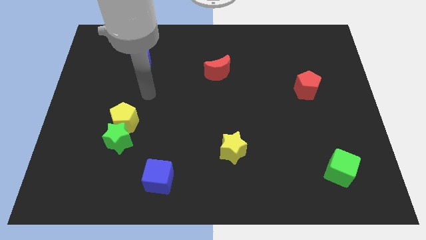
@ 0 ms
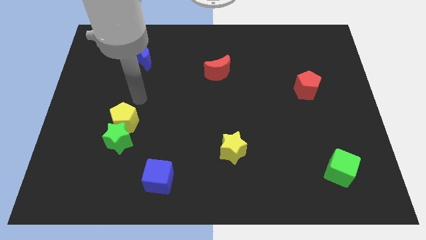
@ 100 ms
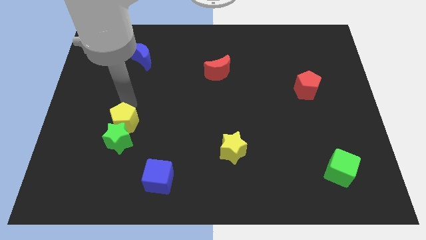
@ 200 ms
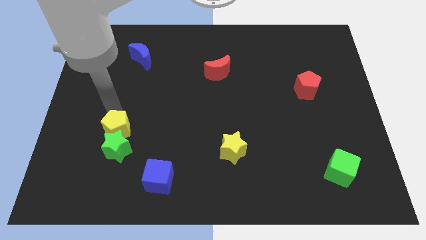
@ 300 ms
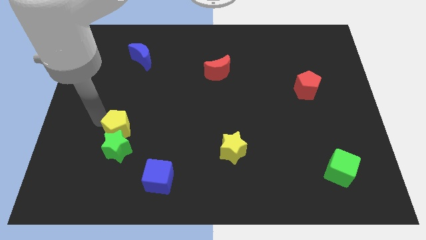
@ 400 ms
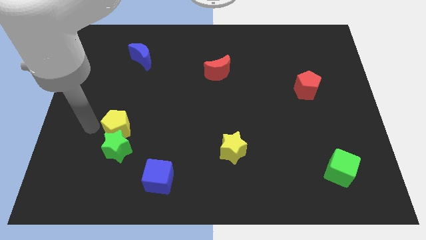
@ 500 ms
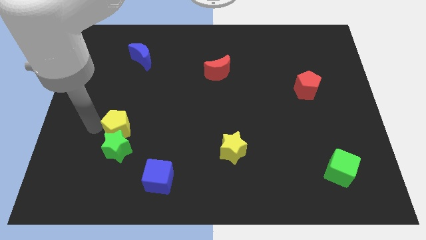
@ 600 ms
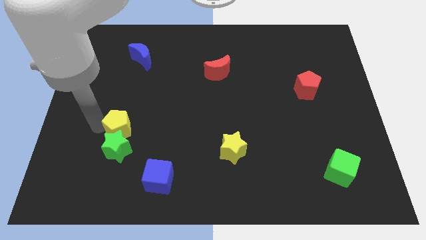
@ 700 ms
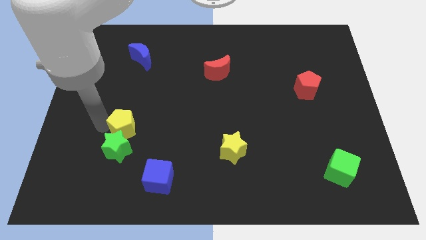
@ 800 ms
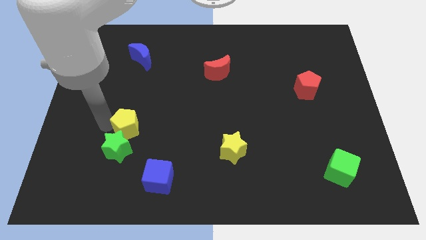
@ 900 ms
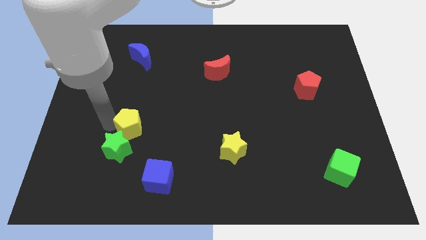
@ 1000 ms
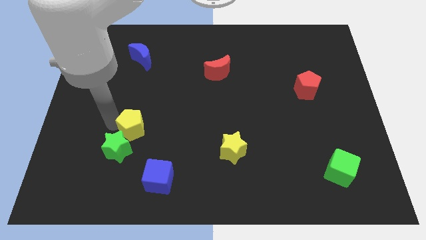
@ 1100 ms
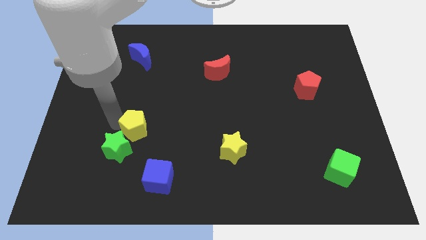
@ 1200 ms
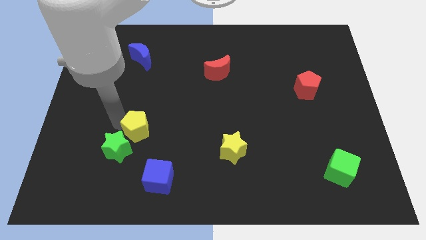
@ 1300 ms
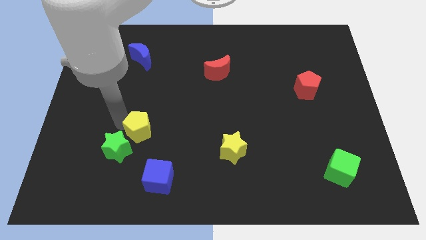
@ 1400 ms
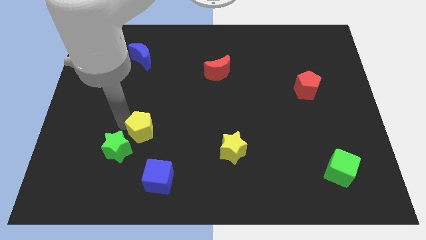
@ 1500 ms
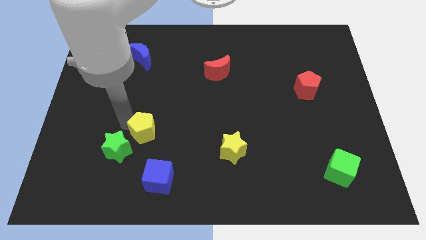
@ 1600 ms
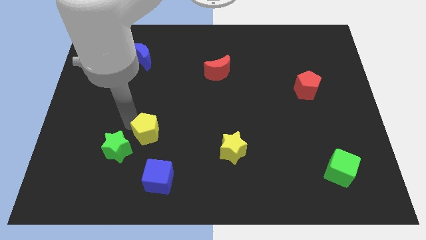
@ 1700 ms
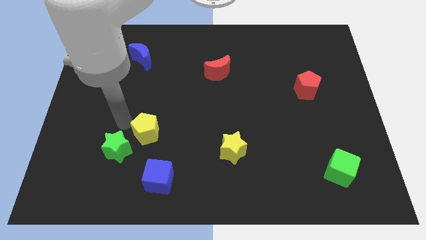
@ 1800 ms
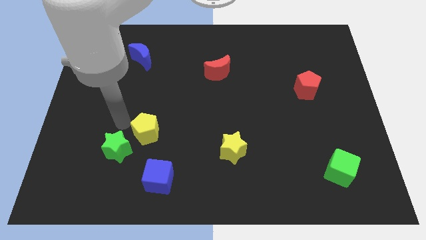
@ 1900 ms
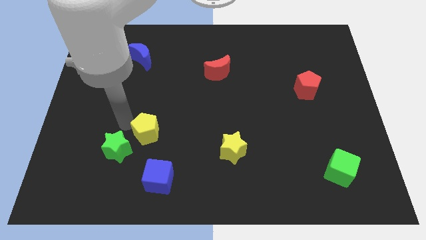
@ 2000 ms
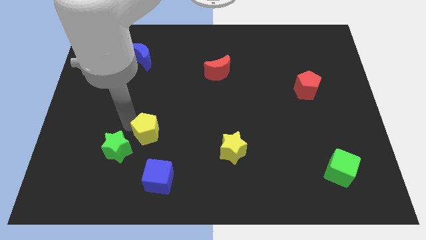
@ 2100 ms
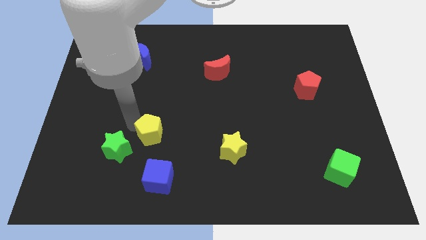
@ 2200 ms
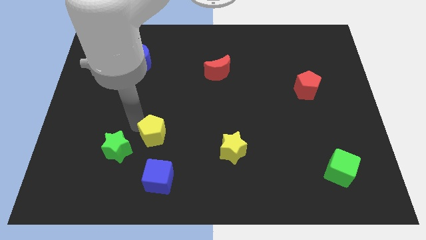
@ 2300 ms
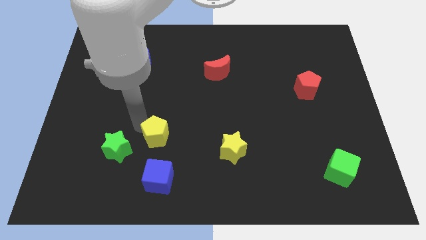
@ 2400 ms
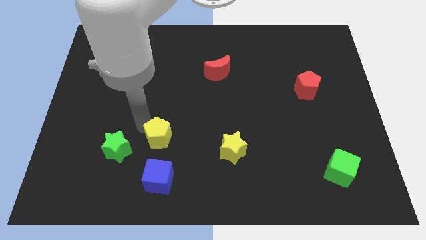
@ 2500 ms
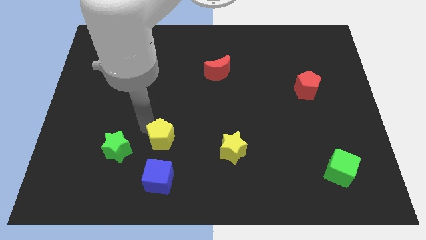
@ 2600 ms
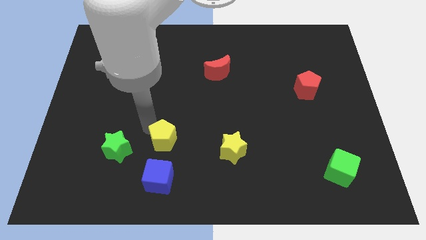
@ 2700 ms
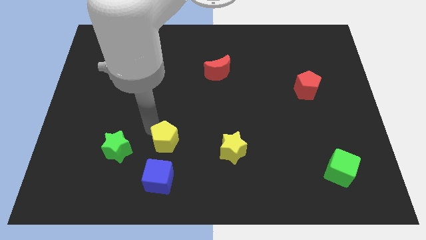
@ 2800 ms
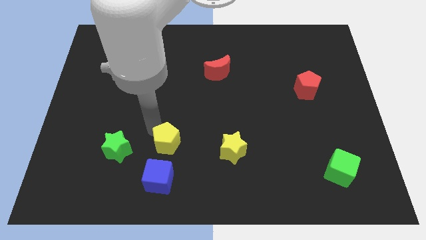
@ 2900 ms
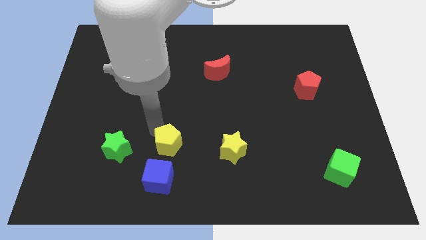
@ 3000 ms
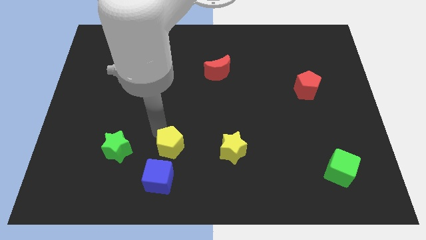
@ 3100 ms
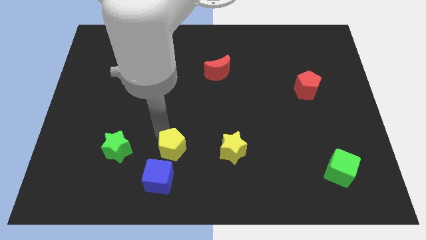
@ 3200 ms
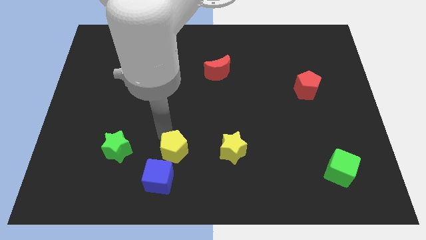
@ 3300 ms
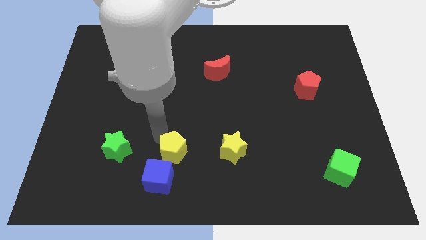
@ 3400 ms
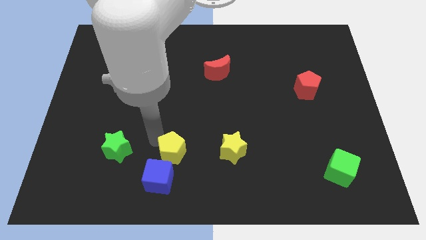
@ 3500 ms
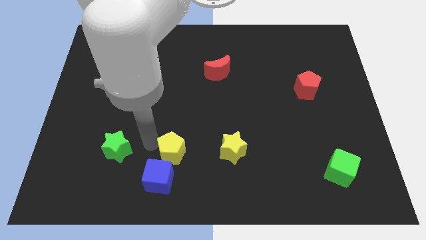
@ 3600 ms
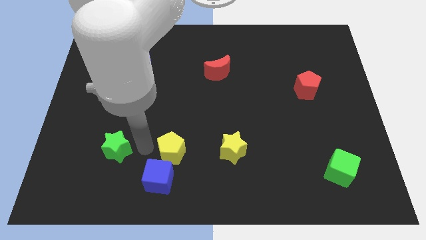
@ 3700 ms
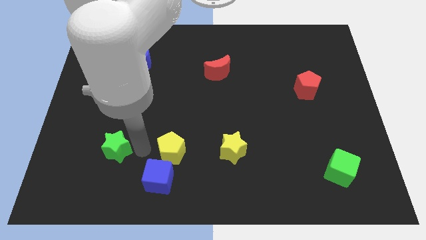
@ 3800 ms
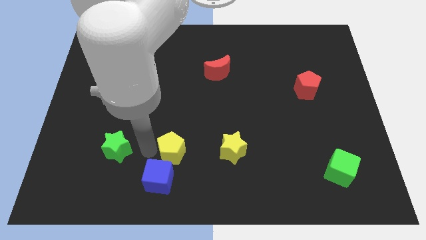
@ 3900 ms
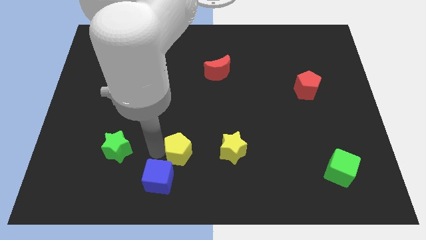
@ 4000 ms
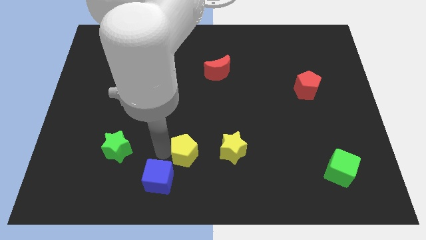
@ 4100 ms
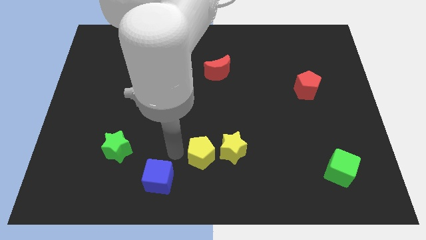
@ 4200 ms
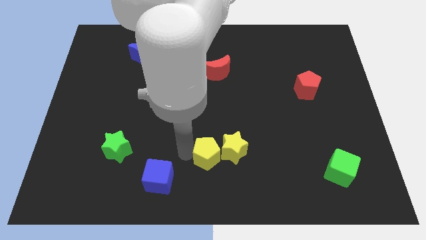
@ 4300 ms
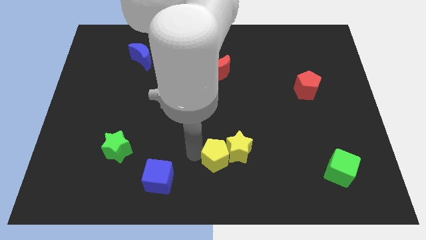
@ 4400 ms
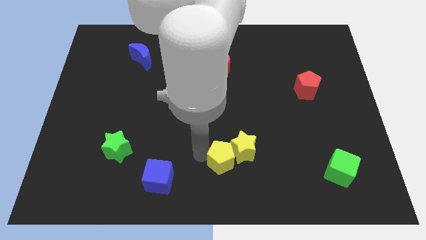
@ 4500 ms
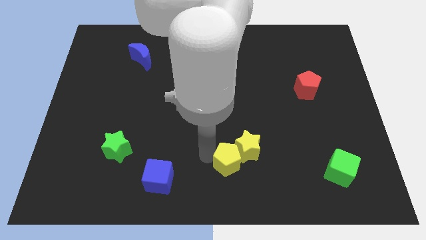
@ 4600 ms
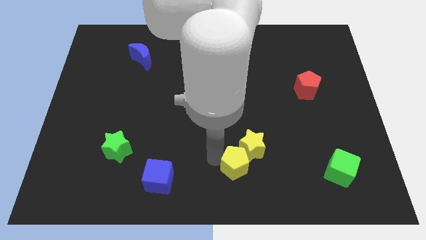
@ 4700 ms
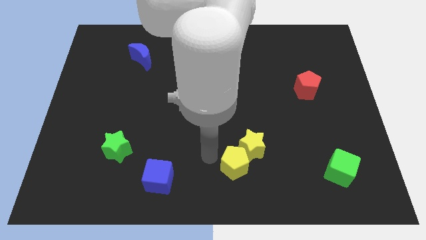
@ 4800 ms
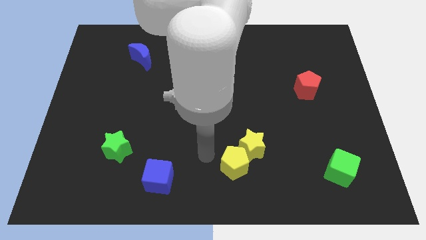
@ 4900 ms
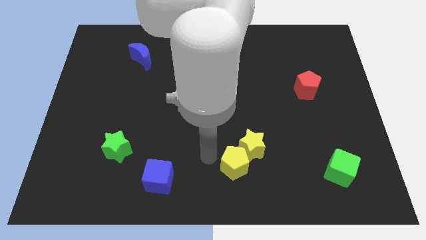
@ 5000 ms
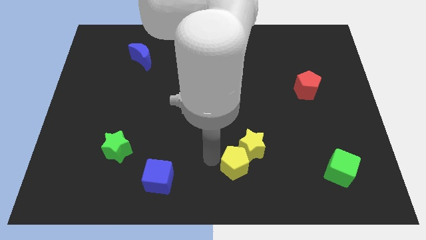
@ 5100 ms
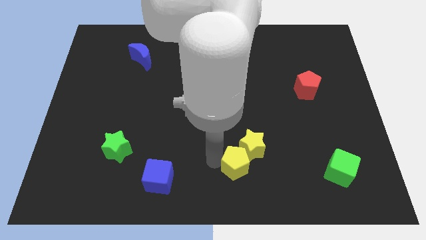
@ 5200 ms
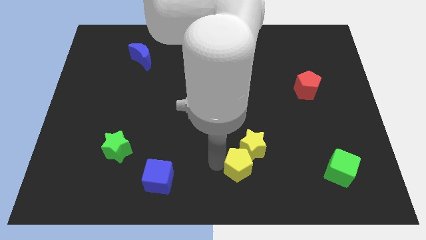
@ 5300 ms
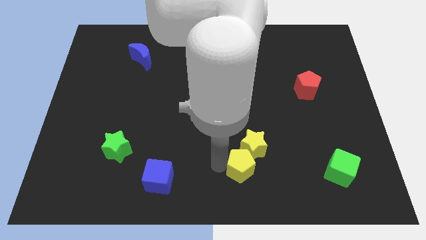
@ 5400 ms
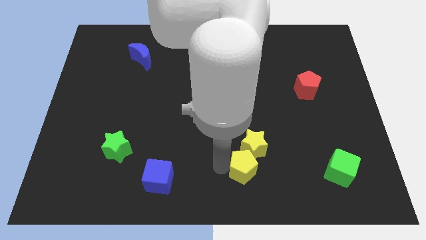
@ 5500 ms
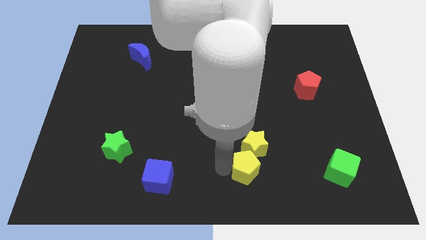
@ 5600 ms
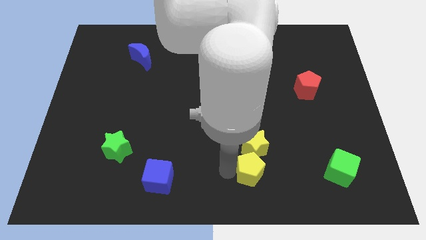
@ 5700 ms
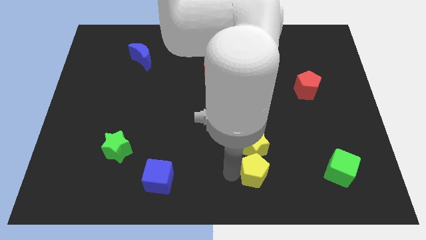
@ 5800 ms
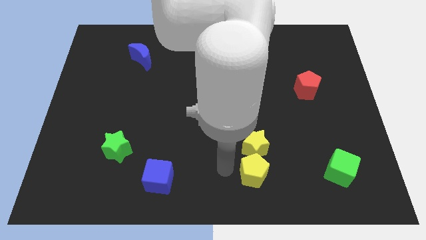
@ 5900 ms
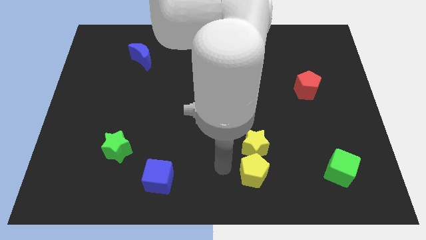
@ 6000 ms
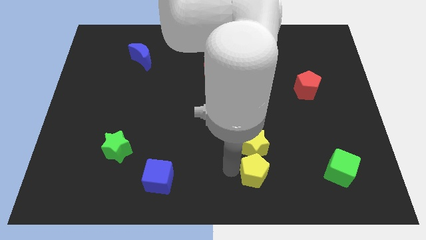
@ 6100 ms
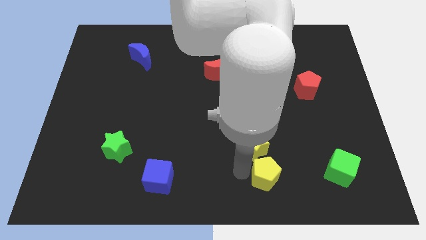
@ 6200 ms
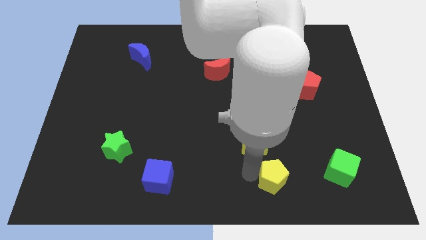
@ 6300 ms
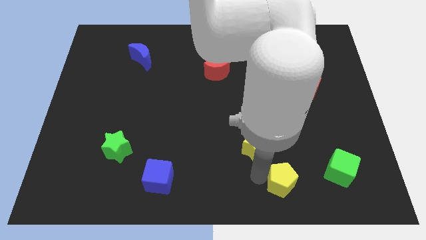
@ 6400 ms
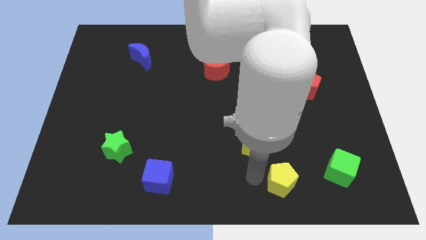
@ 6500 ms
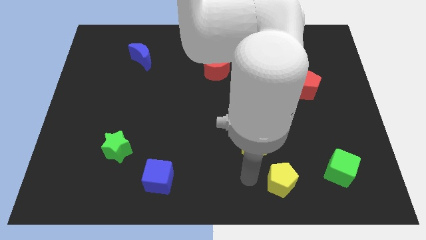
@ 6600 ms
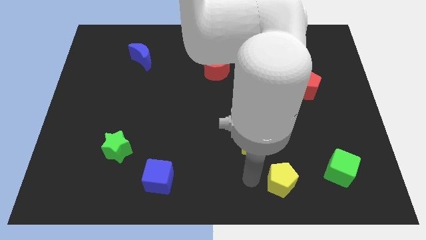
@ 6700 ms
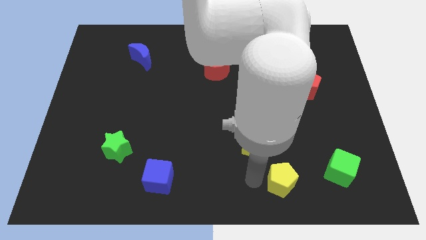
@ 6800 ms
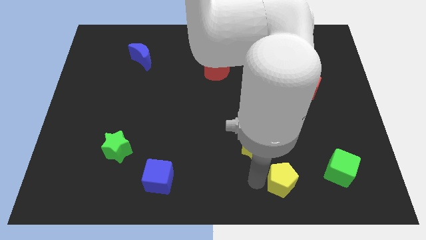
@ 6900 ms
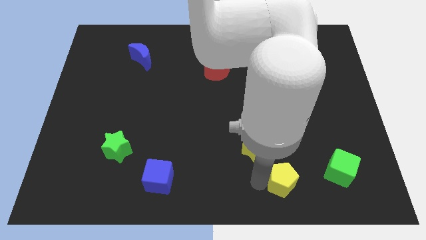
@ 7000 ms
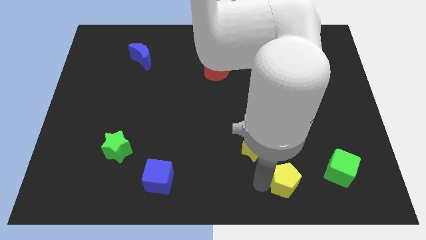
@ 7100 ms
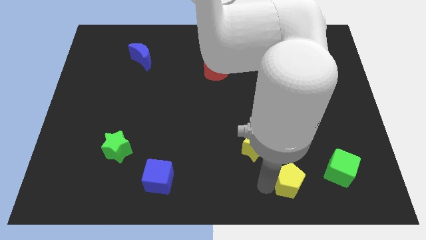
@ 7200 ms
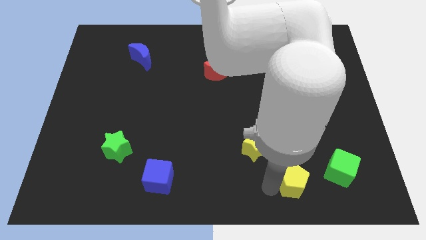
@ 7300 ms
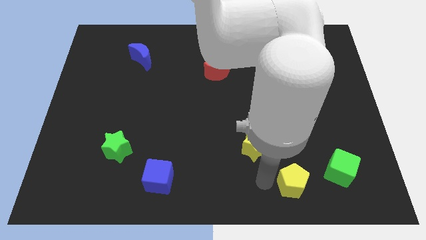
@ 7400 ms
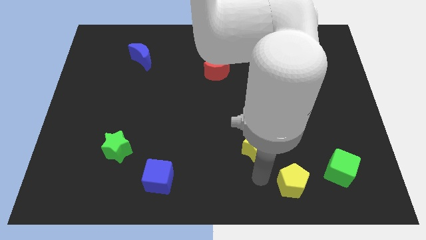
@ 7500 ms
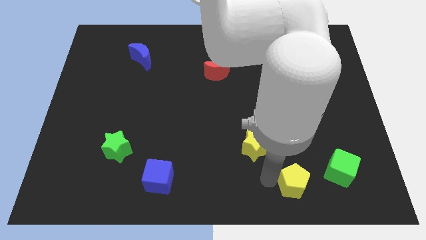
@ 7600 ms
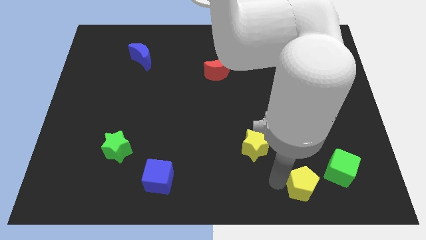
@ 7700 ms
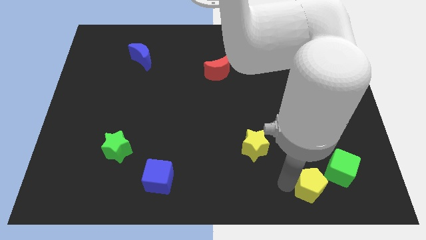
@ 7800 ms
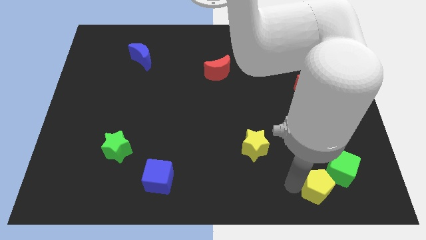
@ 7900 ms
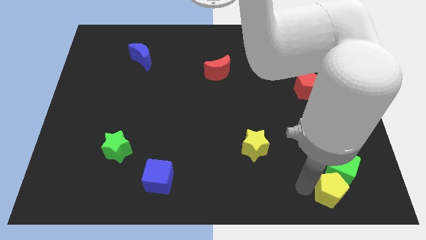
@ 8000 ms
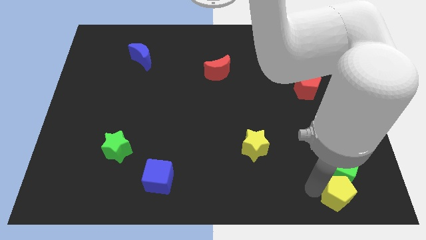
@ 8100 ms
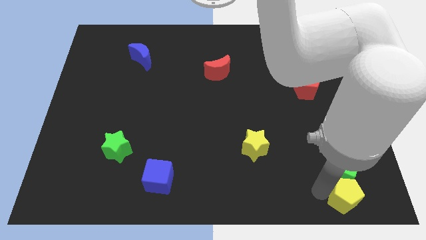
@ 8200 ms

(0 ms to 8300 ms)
slide the yellow pentagon to the lower right corner
